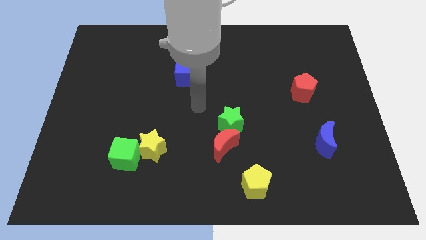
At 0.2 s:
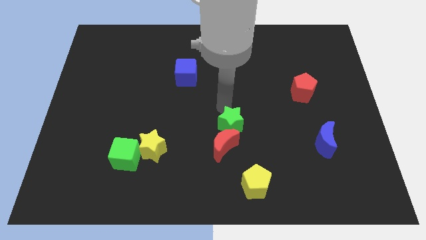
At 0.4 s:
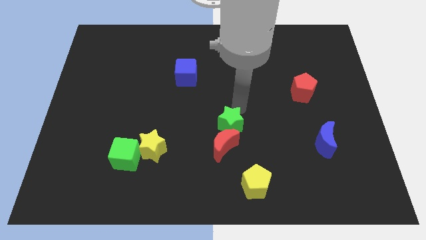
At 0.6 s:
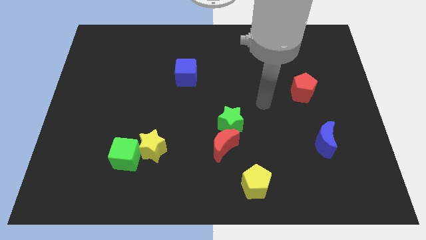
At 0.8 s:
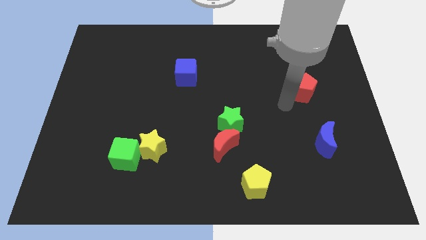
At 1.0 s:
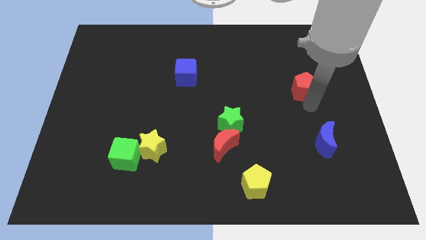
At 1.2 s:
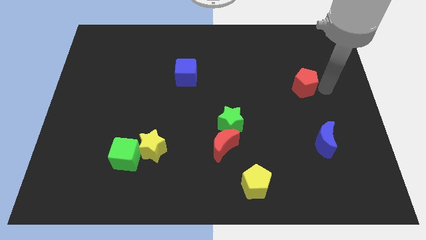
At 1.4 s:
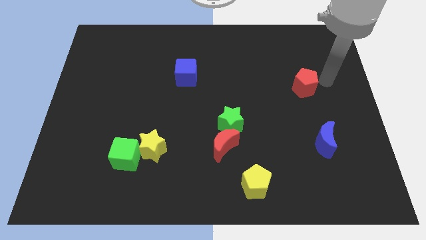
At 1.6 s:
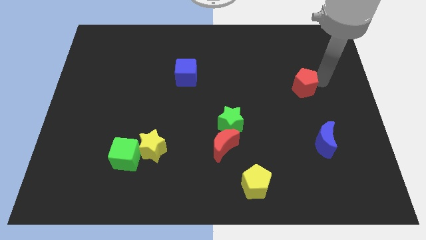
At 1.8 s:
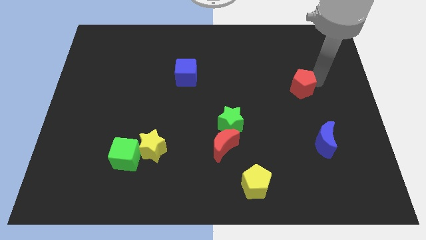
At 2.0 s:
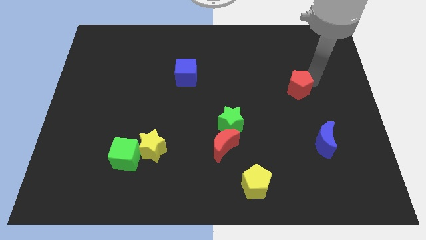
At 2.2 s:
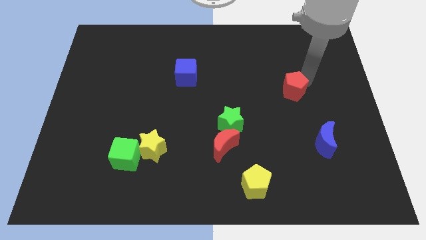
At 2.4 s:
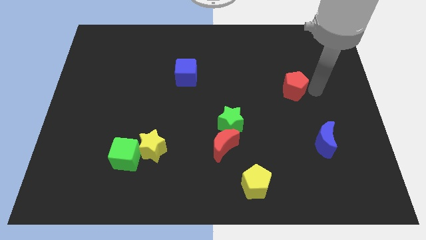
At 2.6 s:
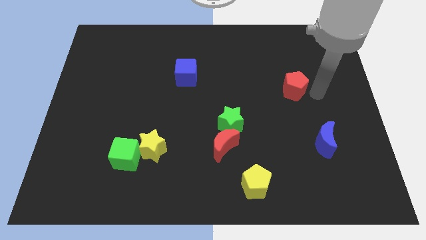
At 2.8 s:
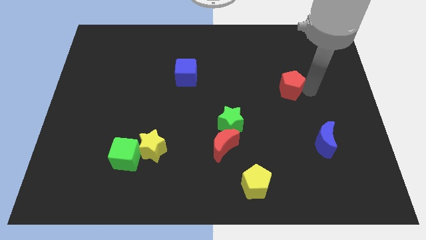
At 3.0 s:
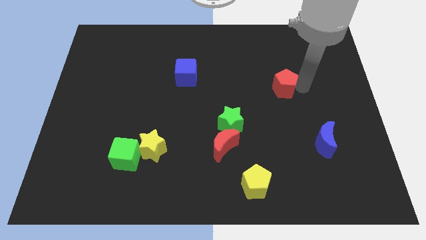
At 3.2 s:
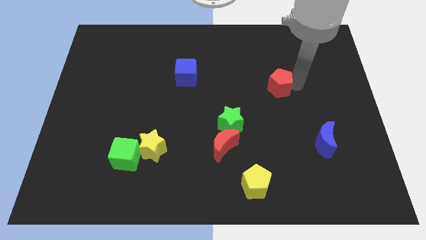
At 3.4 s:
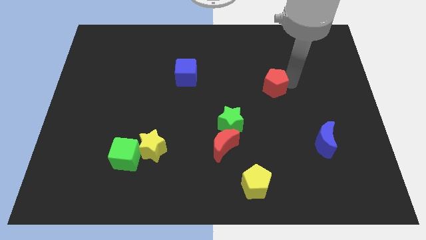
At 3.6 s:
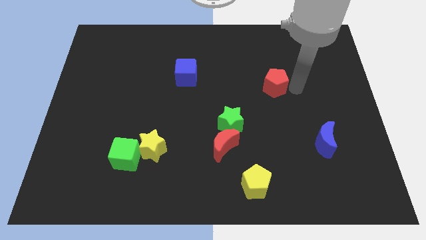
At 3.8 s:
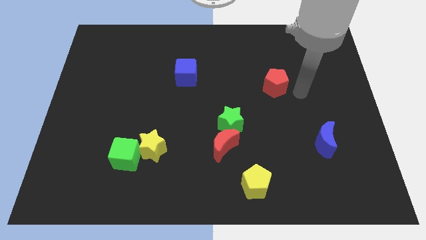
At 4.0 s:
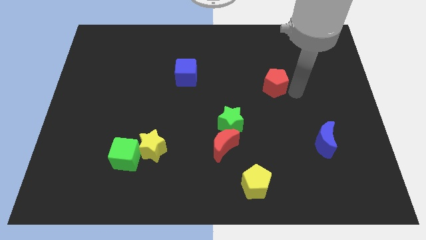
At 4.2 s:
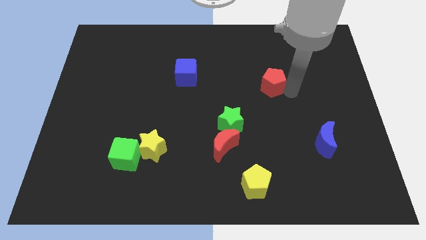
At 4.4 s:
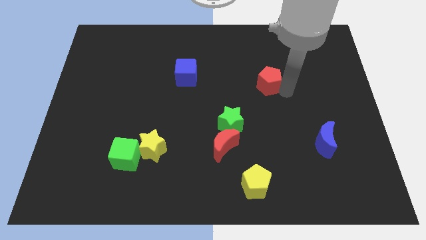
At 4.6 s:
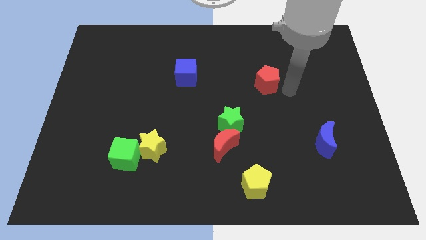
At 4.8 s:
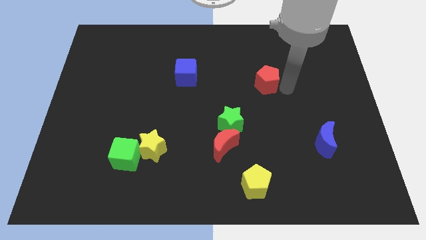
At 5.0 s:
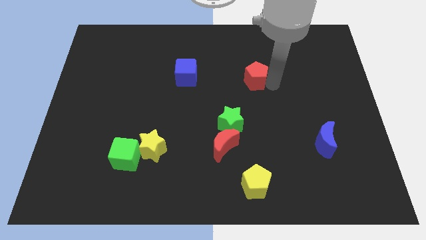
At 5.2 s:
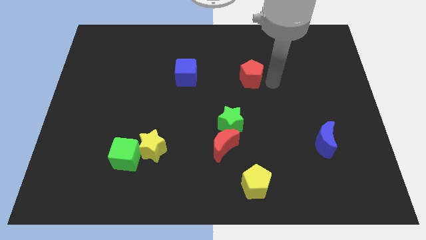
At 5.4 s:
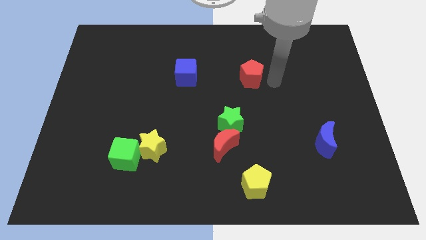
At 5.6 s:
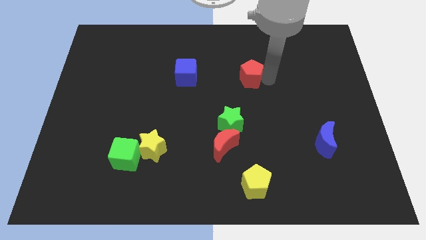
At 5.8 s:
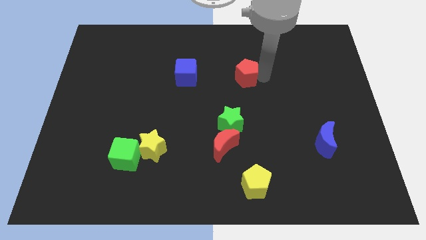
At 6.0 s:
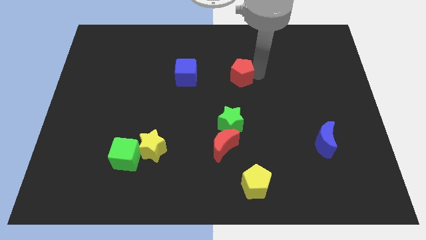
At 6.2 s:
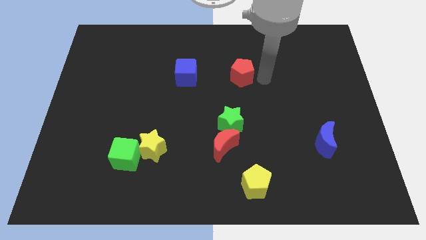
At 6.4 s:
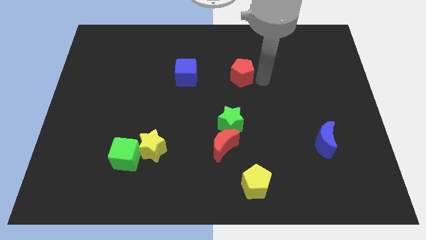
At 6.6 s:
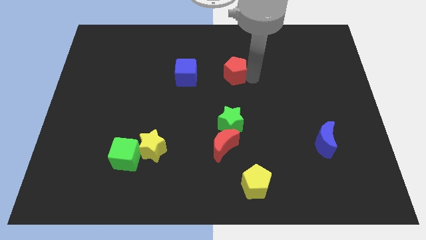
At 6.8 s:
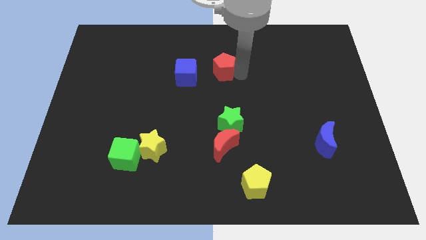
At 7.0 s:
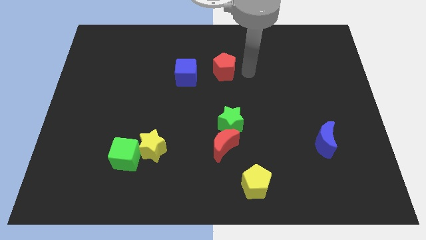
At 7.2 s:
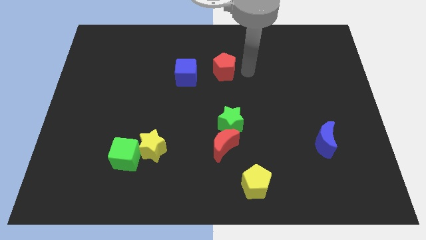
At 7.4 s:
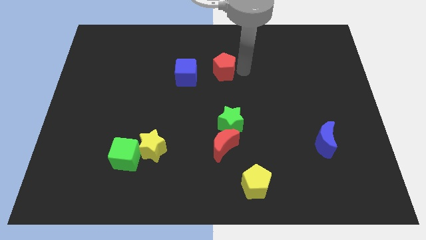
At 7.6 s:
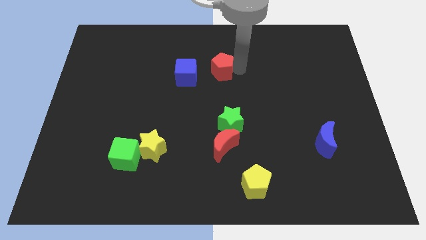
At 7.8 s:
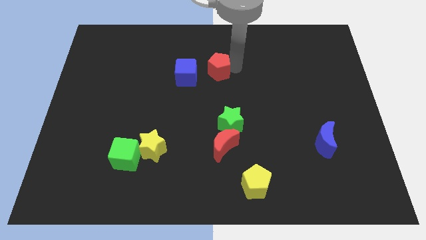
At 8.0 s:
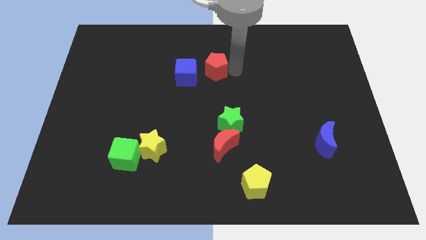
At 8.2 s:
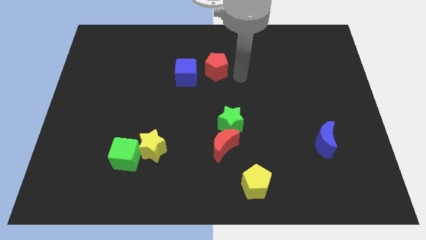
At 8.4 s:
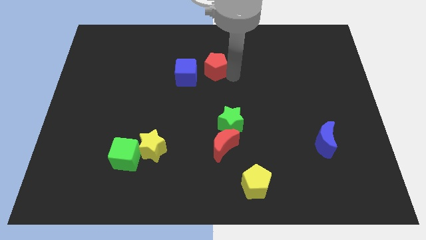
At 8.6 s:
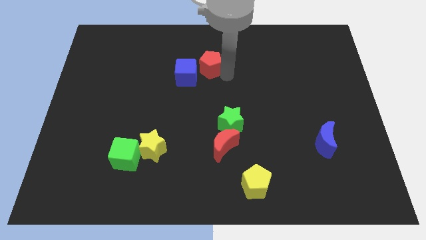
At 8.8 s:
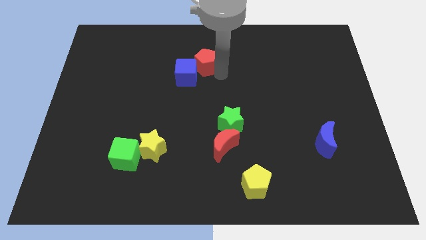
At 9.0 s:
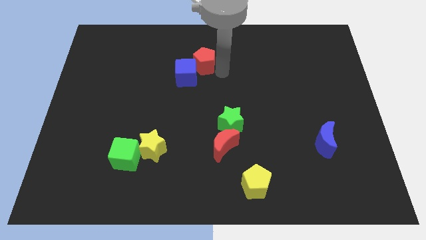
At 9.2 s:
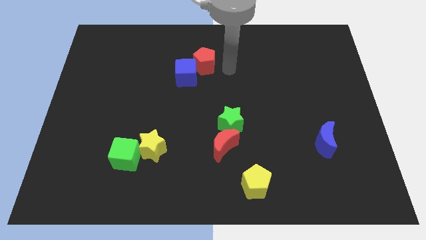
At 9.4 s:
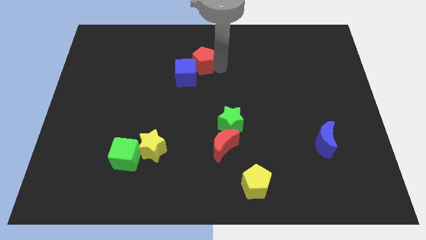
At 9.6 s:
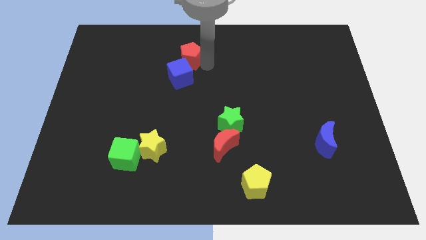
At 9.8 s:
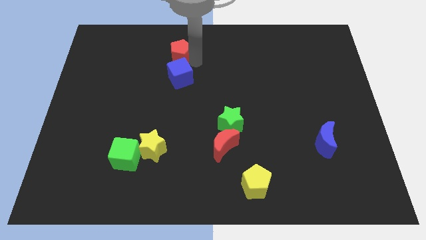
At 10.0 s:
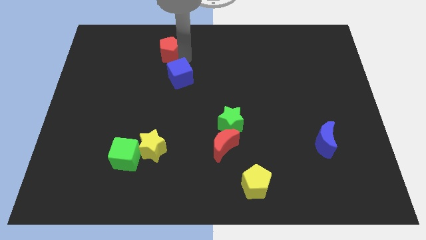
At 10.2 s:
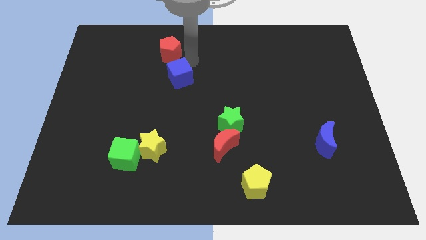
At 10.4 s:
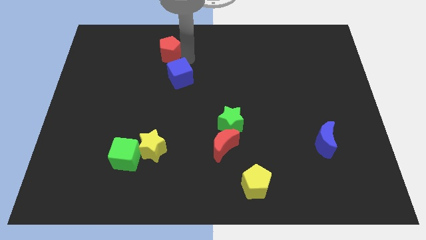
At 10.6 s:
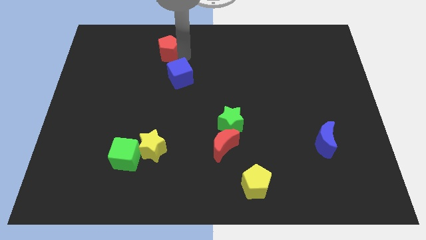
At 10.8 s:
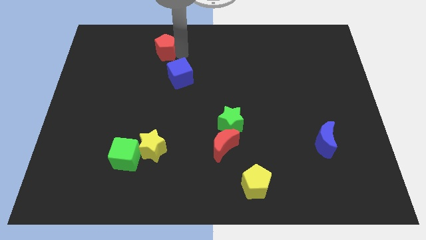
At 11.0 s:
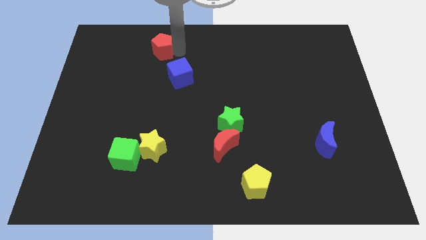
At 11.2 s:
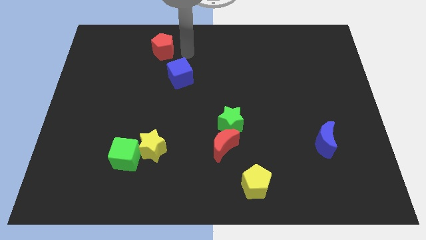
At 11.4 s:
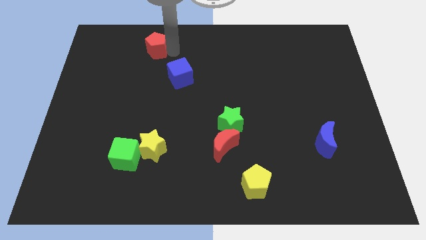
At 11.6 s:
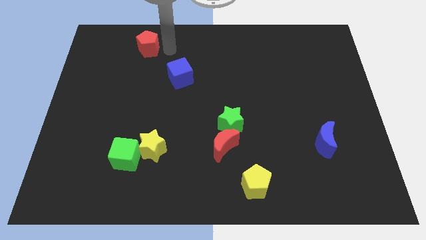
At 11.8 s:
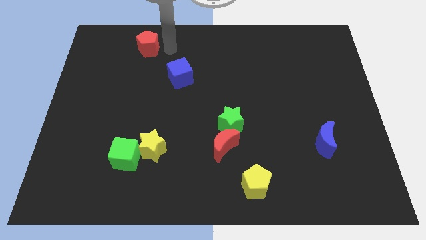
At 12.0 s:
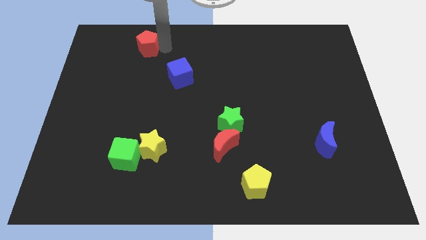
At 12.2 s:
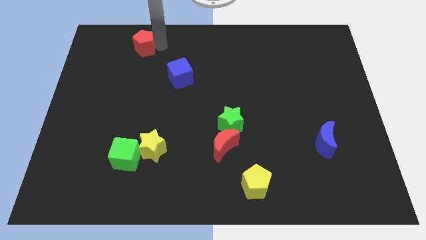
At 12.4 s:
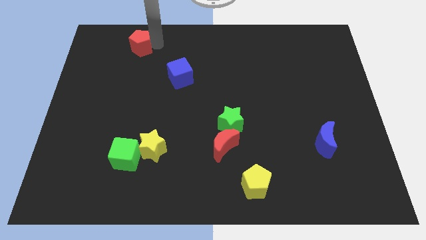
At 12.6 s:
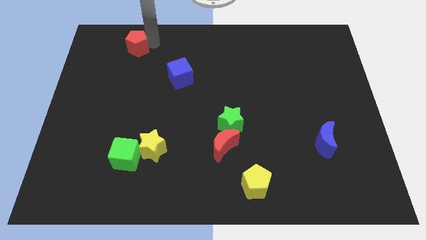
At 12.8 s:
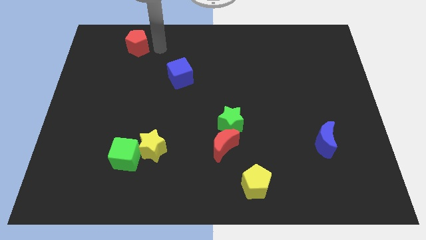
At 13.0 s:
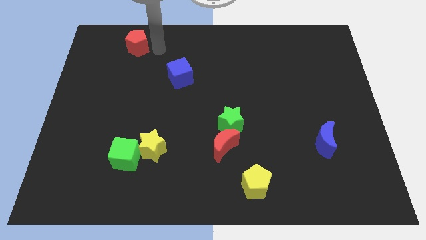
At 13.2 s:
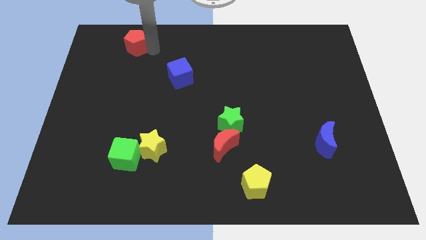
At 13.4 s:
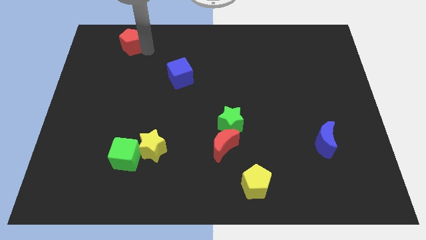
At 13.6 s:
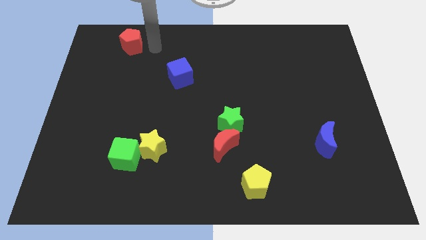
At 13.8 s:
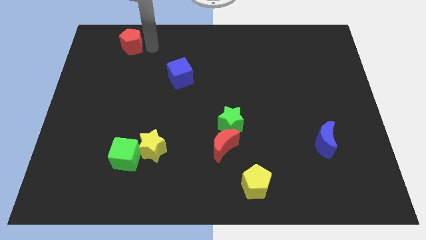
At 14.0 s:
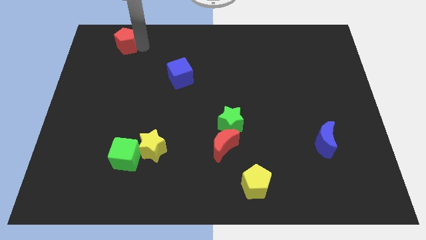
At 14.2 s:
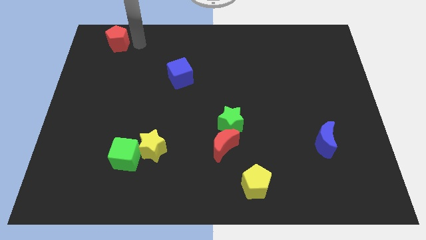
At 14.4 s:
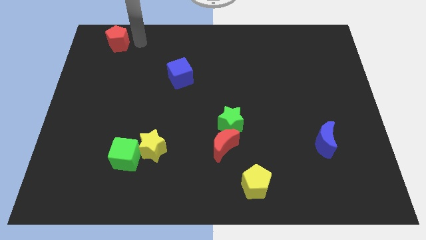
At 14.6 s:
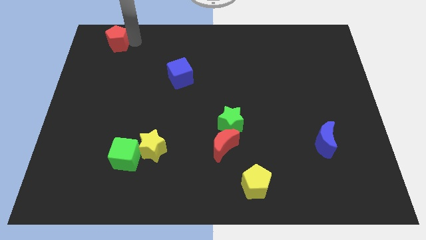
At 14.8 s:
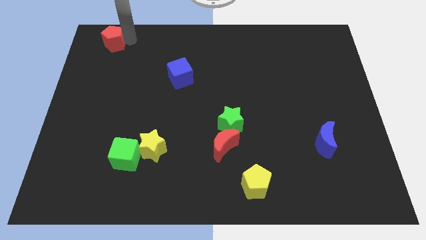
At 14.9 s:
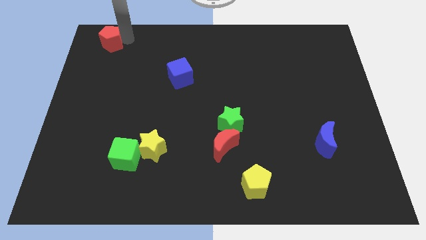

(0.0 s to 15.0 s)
push the red pentagon to the top left of the board
